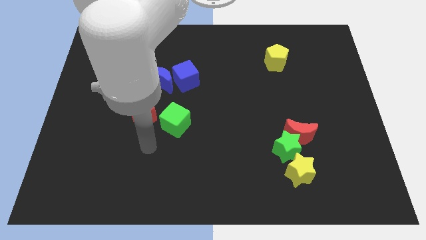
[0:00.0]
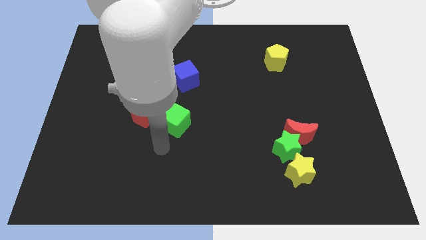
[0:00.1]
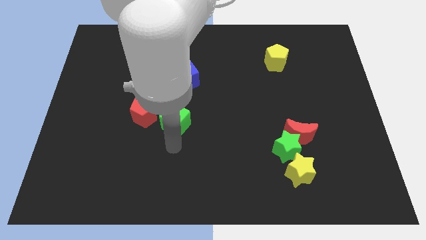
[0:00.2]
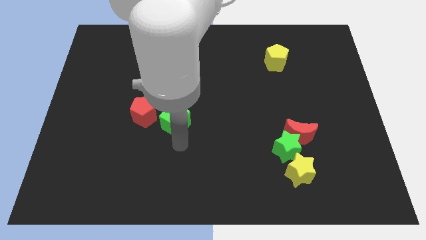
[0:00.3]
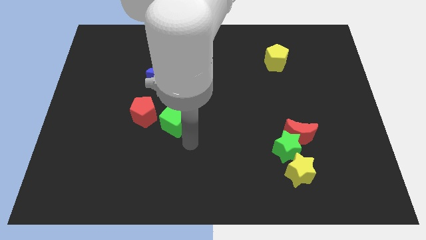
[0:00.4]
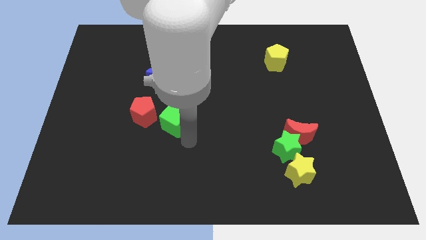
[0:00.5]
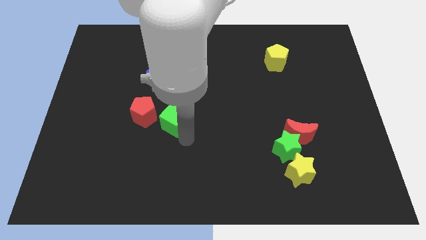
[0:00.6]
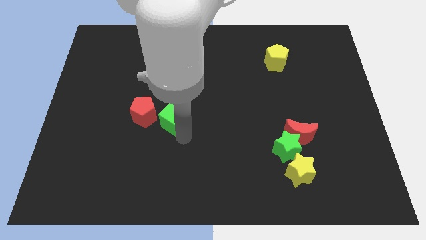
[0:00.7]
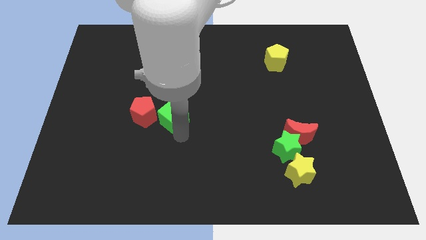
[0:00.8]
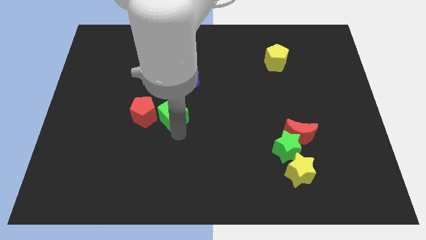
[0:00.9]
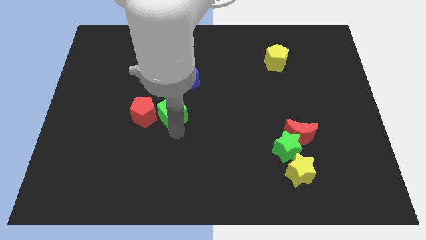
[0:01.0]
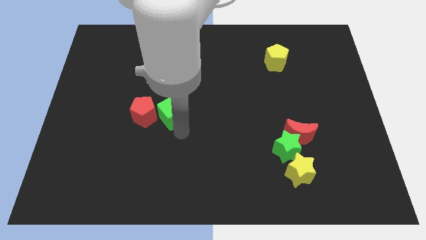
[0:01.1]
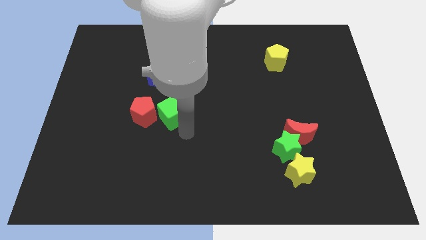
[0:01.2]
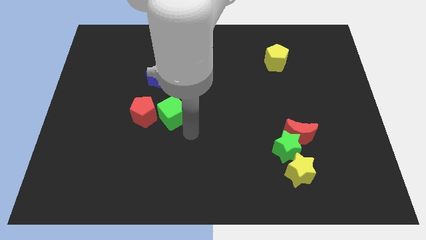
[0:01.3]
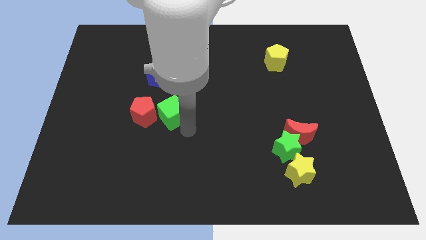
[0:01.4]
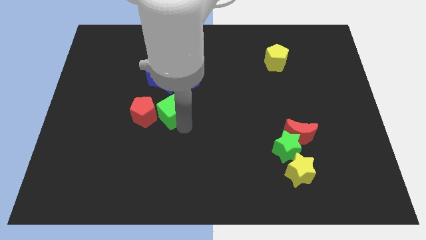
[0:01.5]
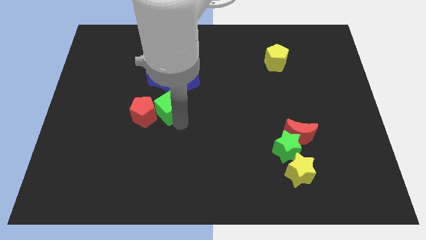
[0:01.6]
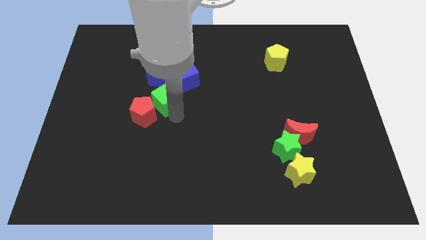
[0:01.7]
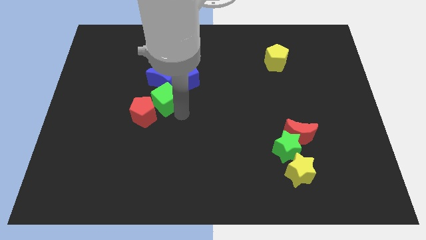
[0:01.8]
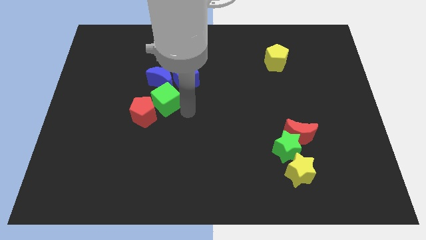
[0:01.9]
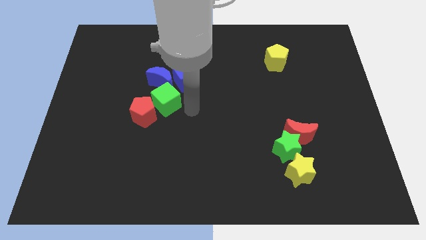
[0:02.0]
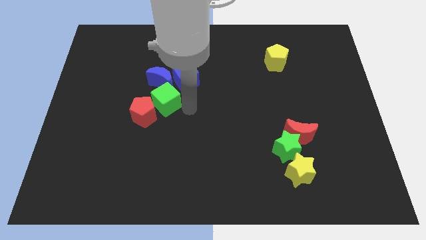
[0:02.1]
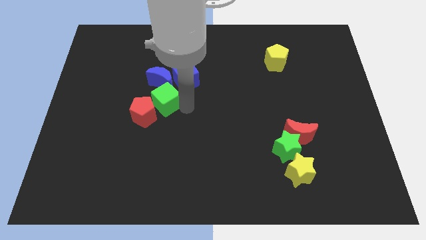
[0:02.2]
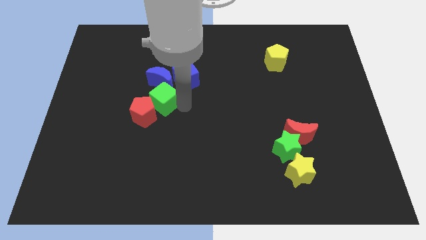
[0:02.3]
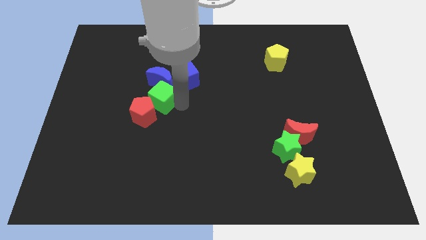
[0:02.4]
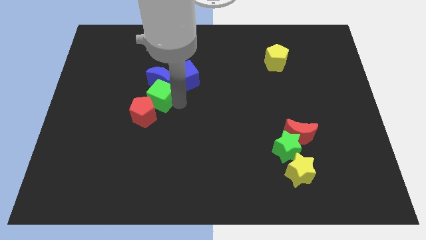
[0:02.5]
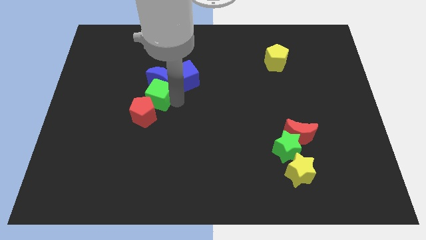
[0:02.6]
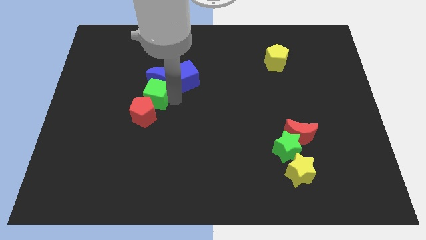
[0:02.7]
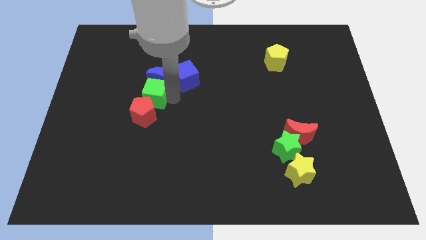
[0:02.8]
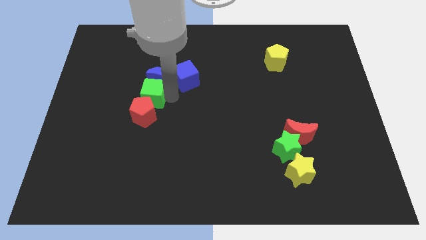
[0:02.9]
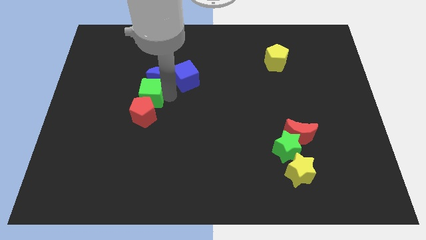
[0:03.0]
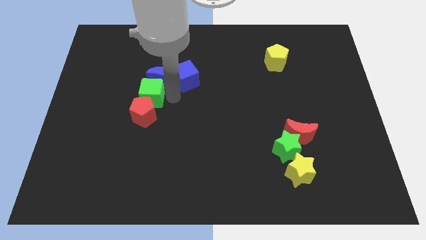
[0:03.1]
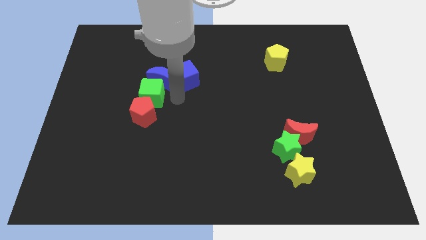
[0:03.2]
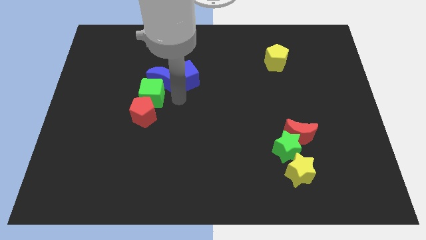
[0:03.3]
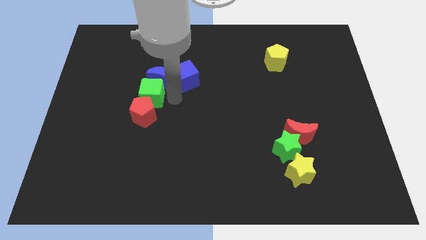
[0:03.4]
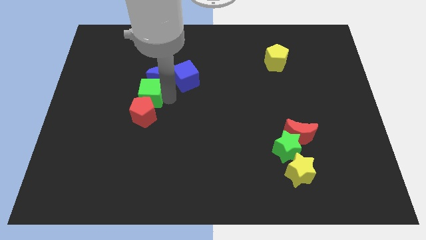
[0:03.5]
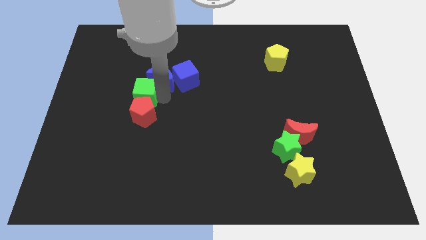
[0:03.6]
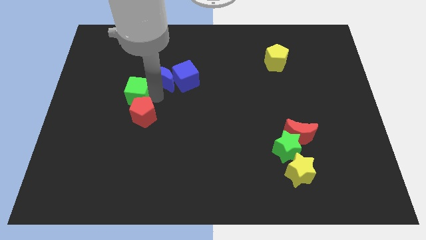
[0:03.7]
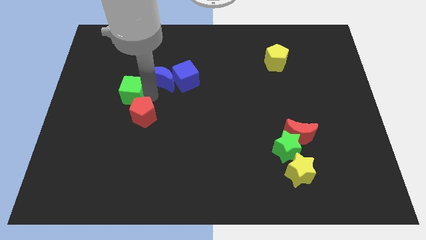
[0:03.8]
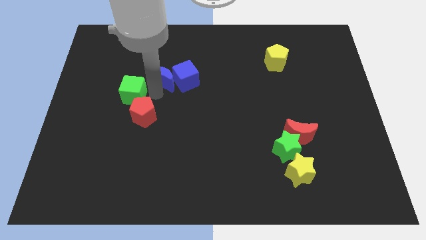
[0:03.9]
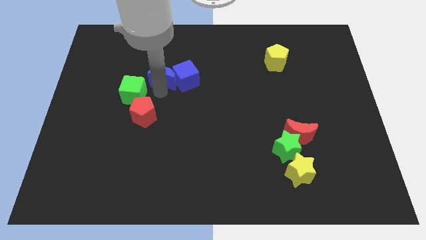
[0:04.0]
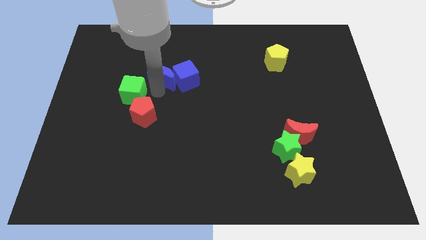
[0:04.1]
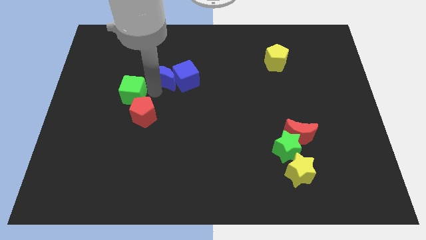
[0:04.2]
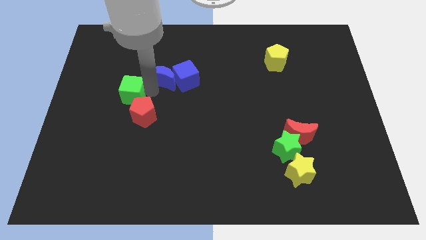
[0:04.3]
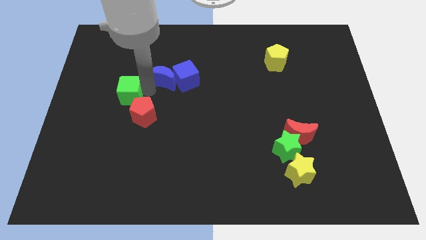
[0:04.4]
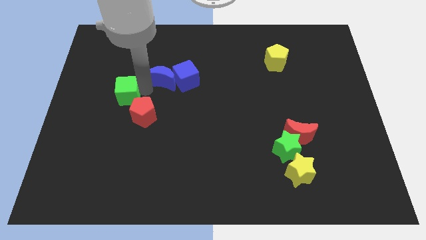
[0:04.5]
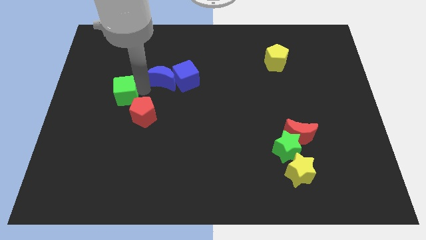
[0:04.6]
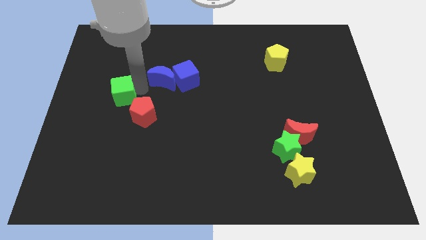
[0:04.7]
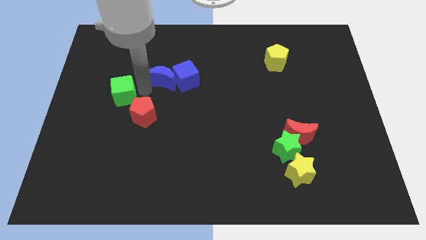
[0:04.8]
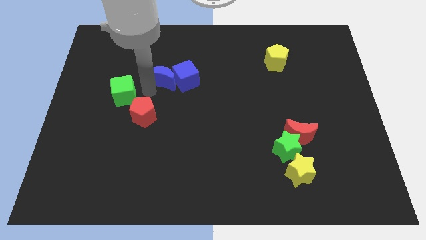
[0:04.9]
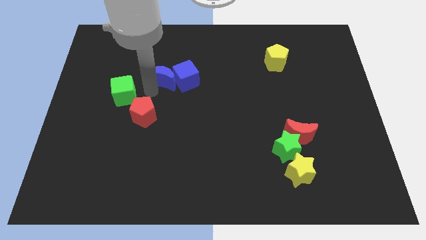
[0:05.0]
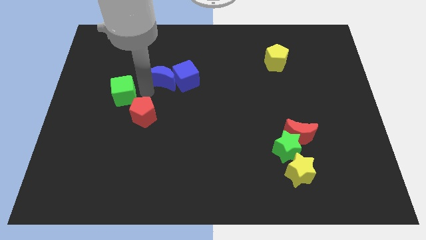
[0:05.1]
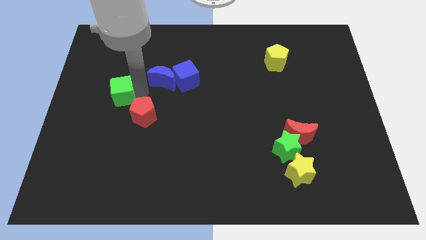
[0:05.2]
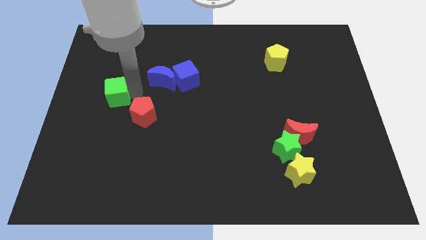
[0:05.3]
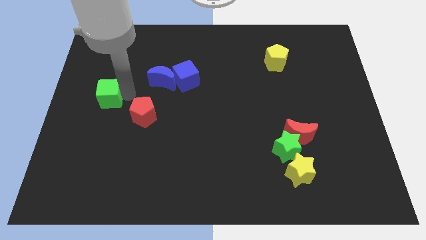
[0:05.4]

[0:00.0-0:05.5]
slide the green cube to the left side

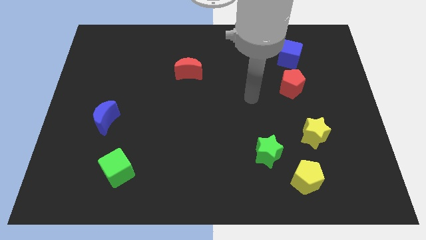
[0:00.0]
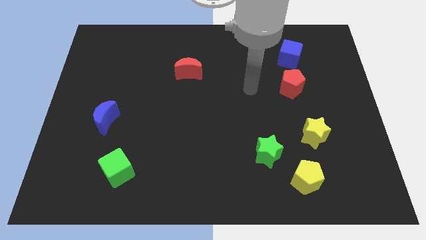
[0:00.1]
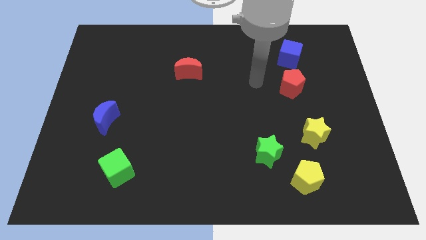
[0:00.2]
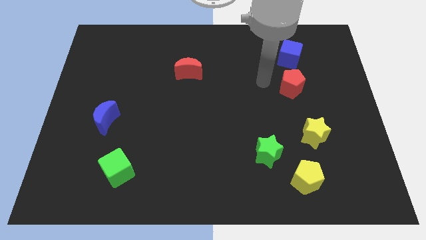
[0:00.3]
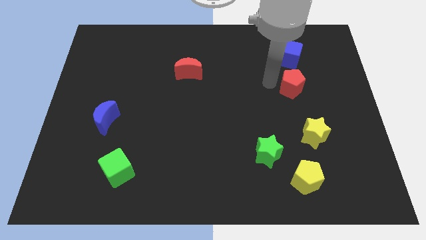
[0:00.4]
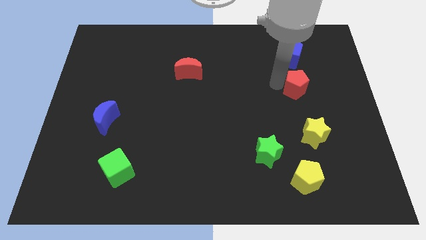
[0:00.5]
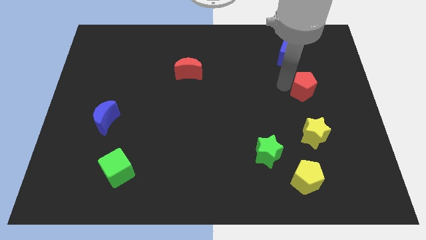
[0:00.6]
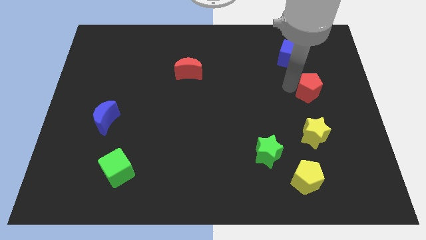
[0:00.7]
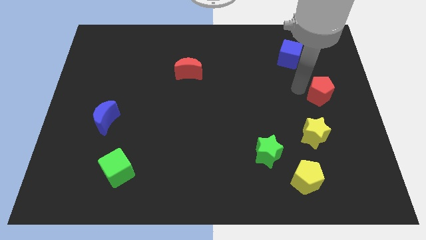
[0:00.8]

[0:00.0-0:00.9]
put the red pentagon to the right side of the board

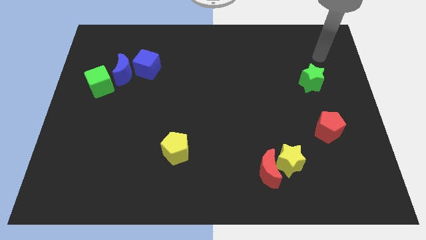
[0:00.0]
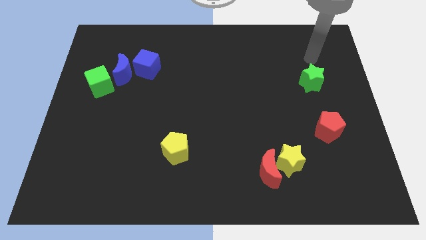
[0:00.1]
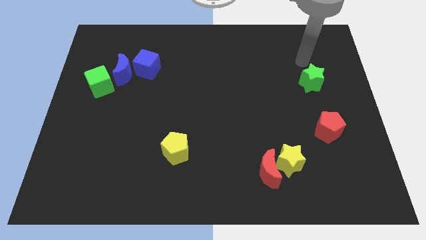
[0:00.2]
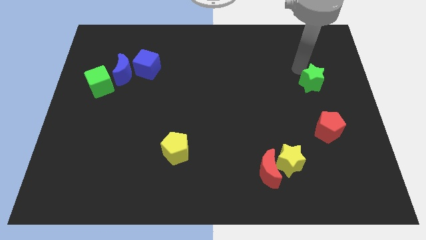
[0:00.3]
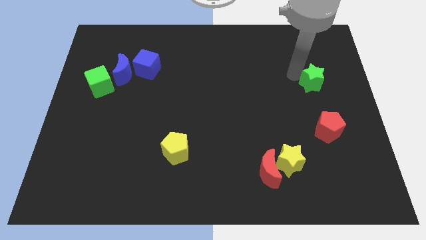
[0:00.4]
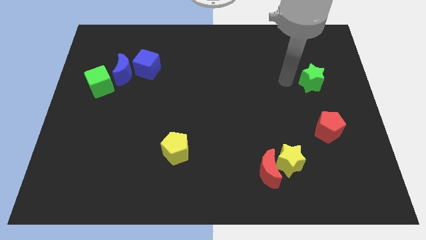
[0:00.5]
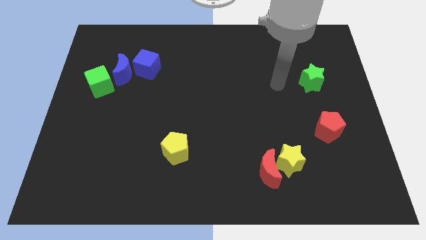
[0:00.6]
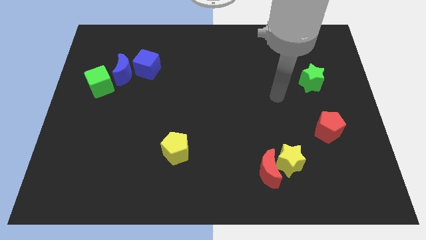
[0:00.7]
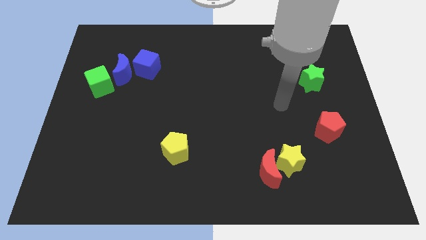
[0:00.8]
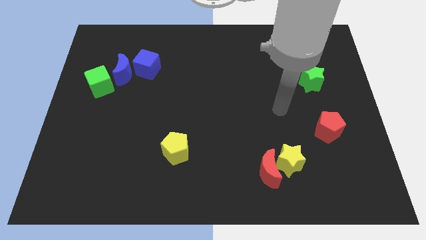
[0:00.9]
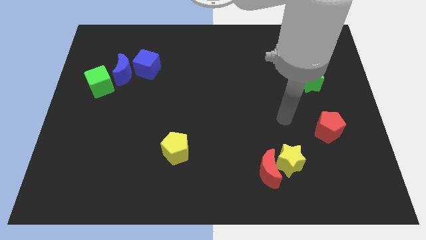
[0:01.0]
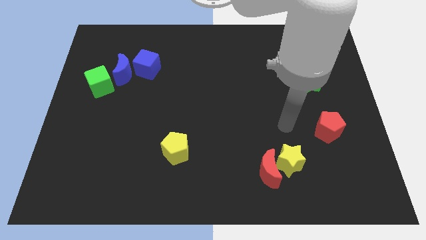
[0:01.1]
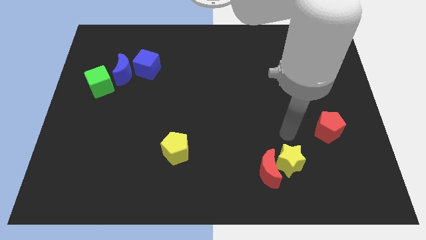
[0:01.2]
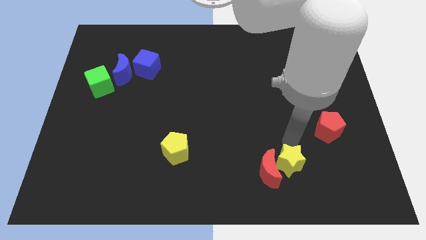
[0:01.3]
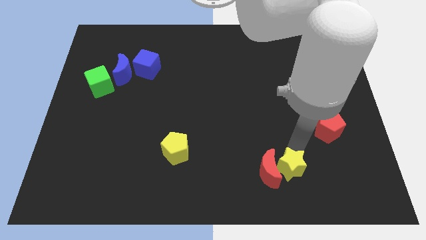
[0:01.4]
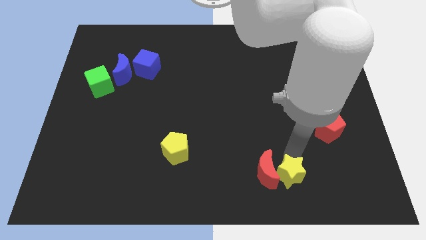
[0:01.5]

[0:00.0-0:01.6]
slide the red moon to the bottom
